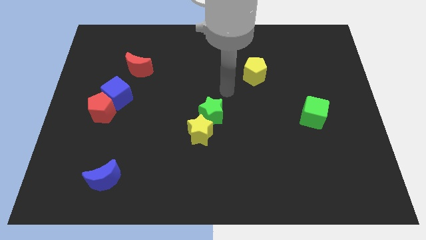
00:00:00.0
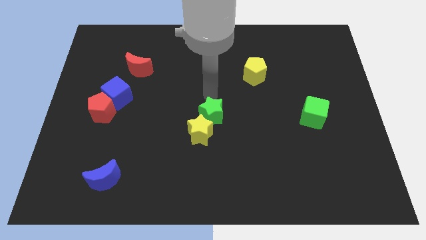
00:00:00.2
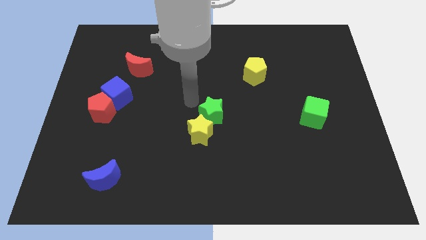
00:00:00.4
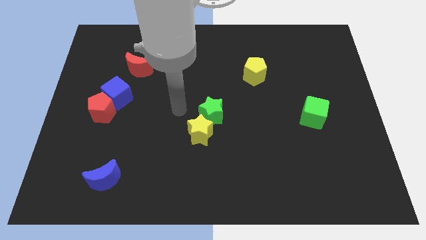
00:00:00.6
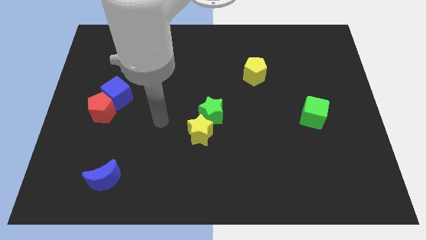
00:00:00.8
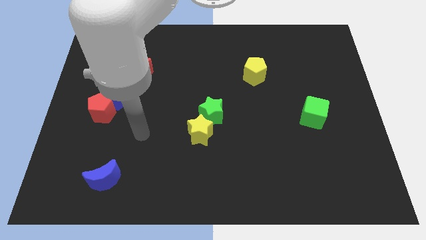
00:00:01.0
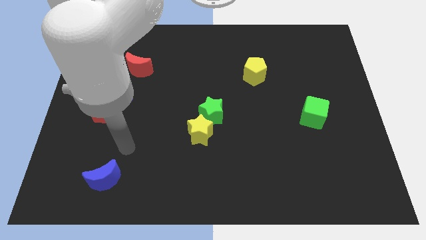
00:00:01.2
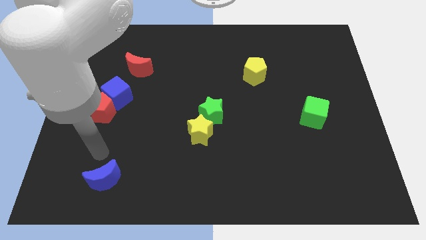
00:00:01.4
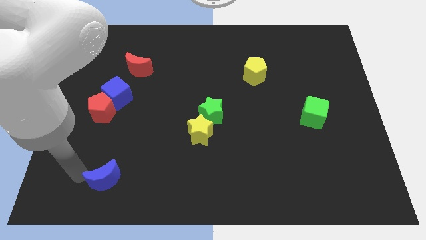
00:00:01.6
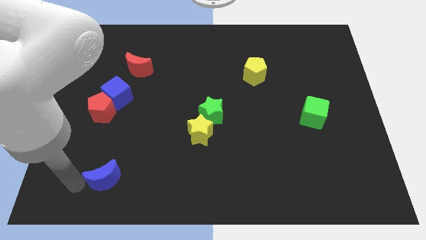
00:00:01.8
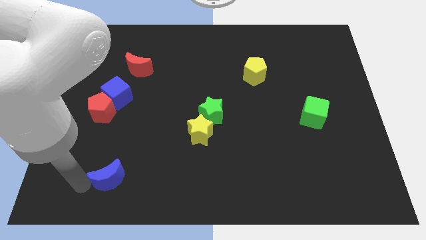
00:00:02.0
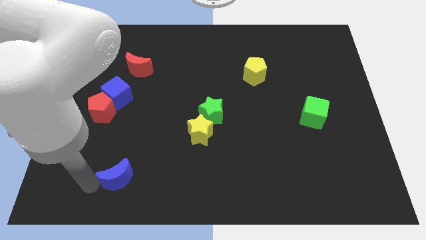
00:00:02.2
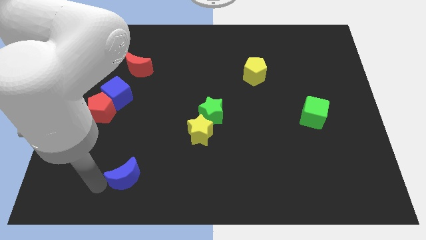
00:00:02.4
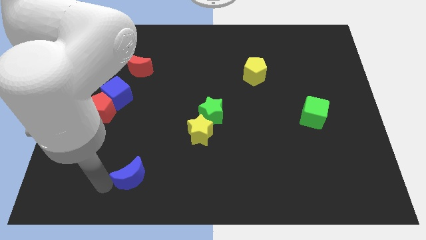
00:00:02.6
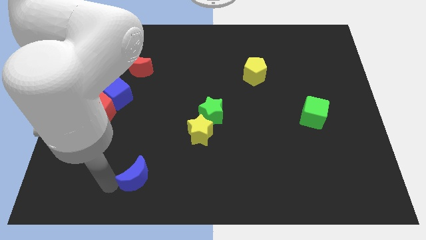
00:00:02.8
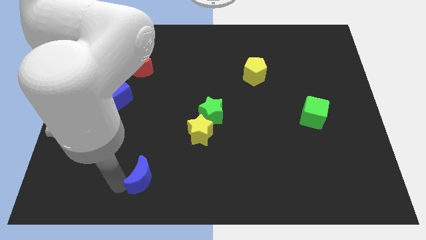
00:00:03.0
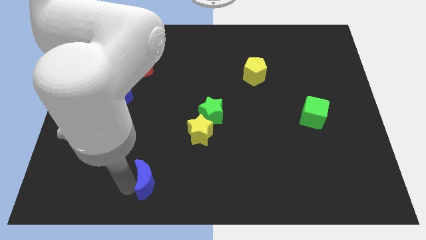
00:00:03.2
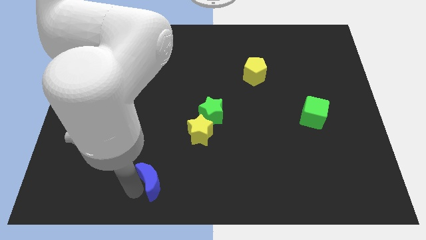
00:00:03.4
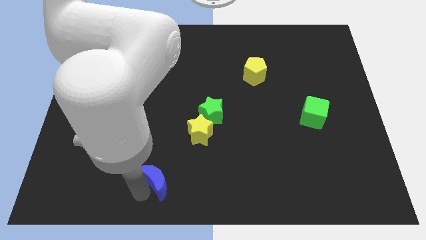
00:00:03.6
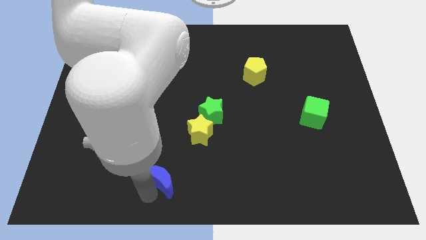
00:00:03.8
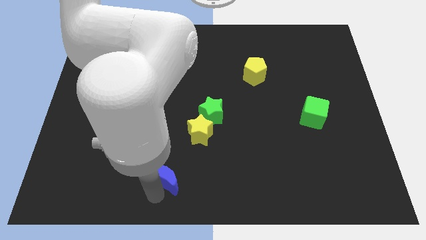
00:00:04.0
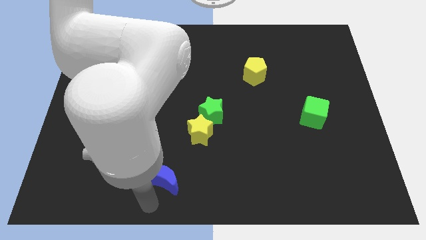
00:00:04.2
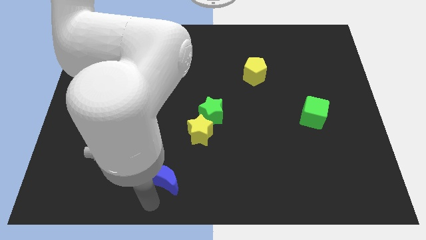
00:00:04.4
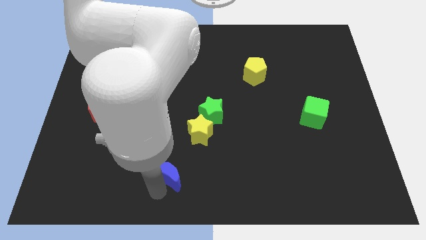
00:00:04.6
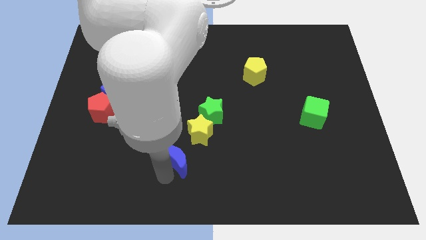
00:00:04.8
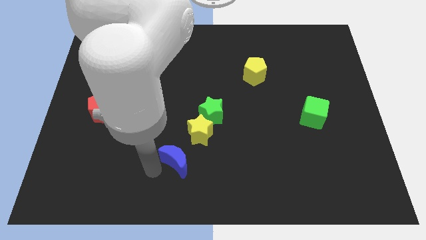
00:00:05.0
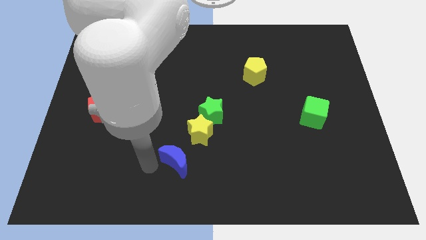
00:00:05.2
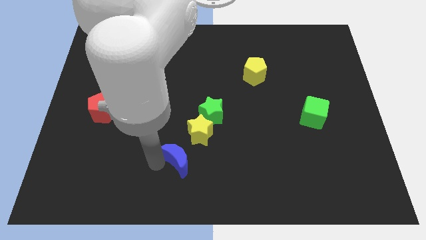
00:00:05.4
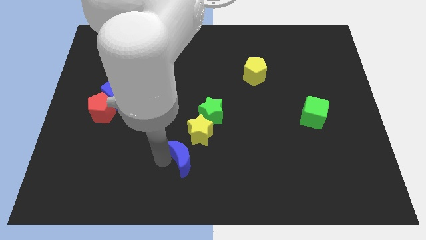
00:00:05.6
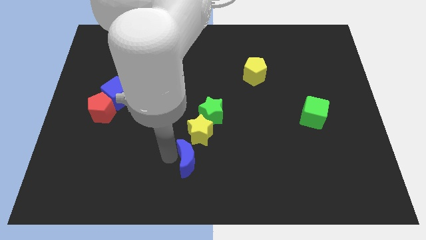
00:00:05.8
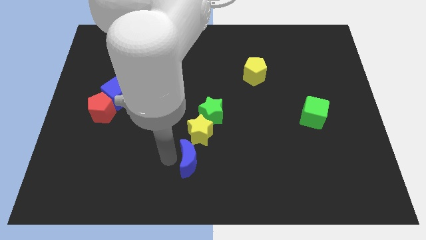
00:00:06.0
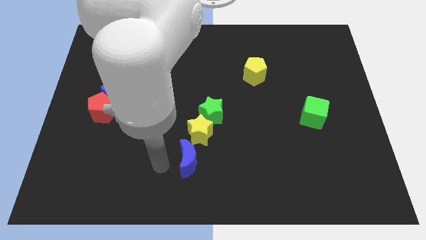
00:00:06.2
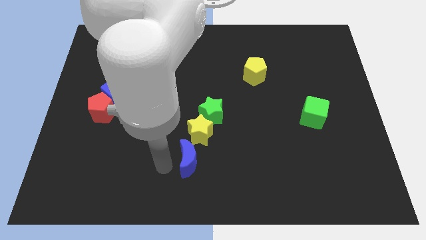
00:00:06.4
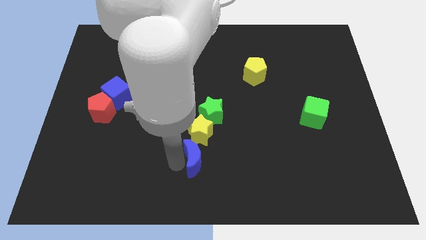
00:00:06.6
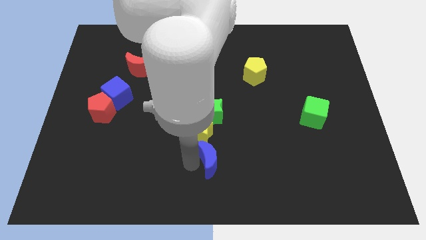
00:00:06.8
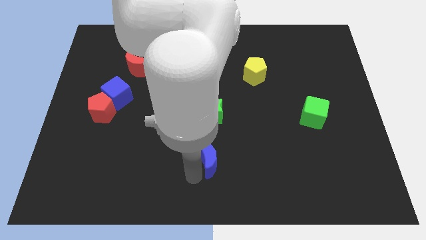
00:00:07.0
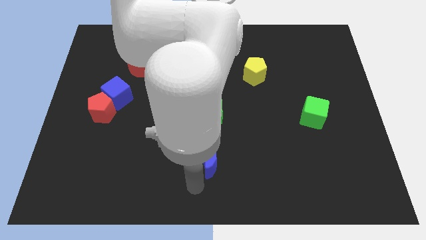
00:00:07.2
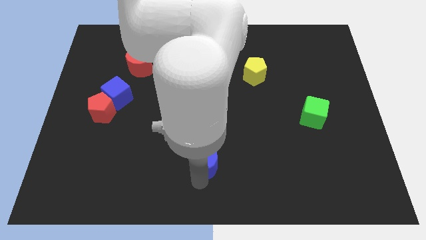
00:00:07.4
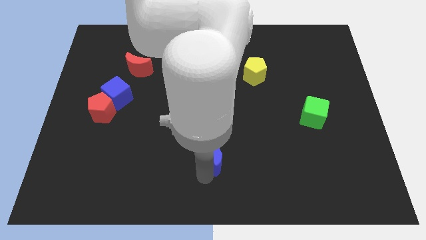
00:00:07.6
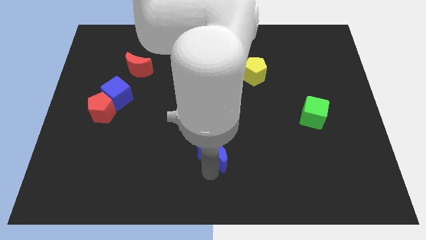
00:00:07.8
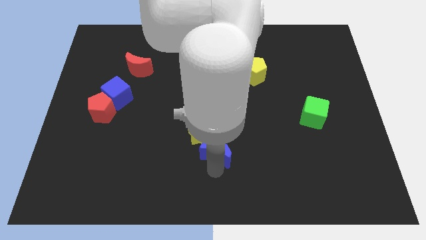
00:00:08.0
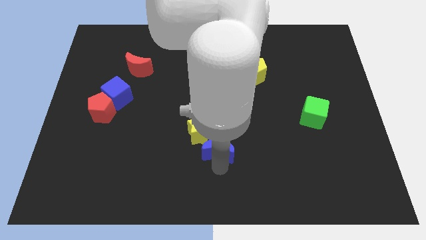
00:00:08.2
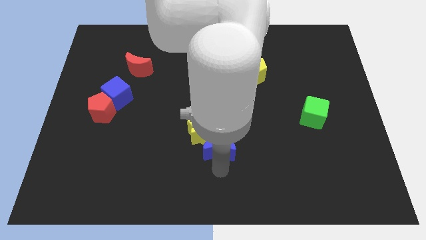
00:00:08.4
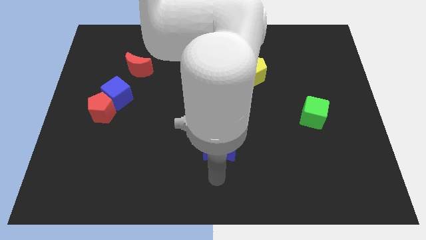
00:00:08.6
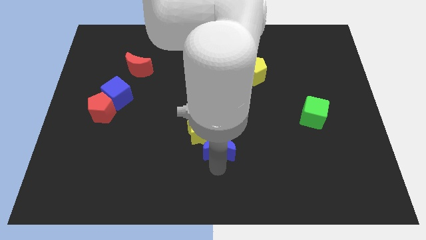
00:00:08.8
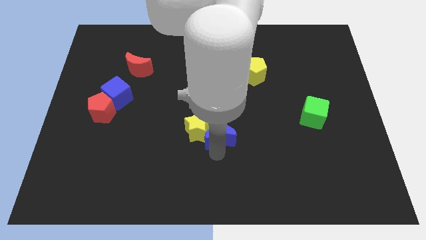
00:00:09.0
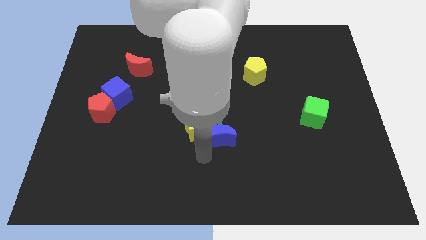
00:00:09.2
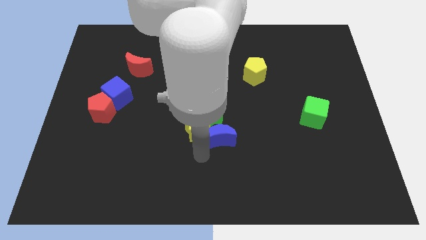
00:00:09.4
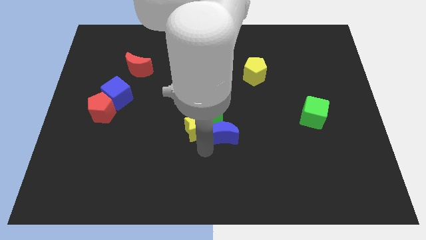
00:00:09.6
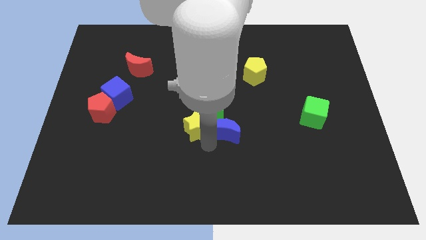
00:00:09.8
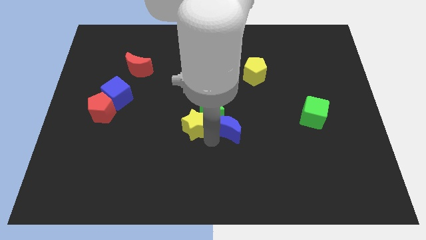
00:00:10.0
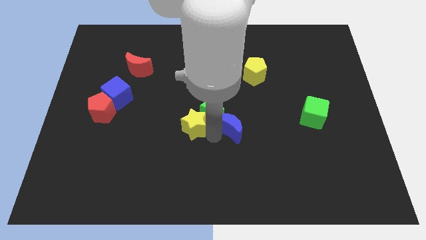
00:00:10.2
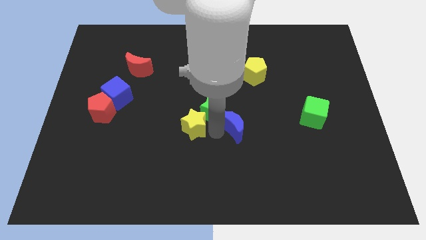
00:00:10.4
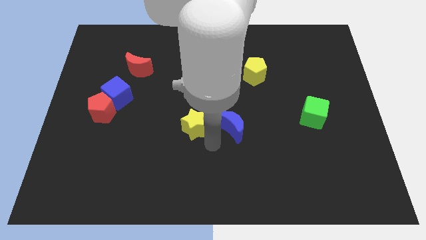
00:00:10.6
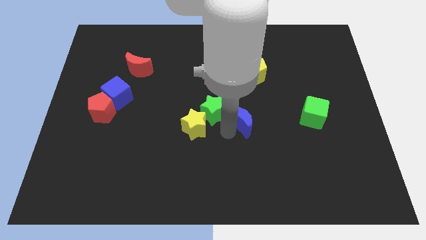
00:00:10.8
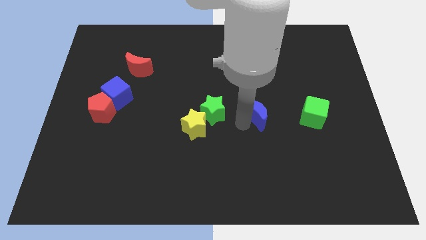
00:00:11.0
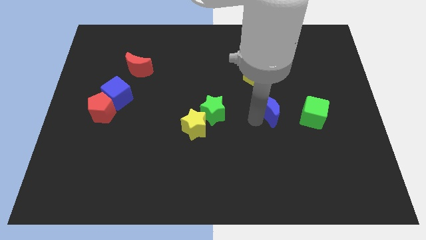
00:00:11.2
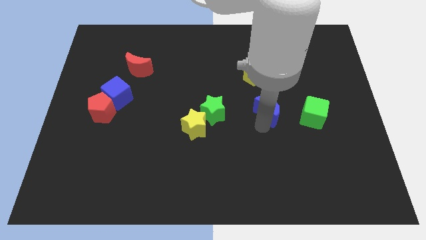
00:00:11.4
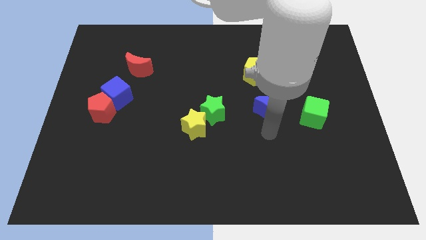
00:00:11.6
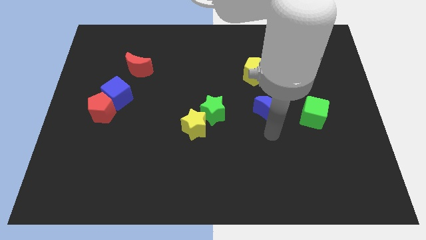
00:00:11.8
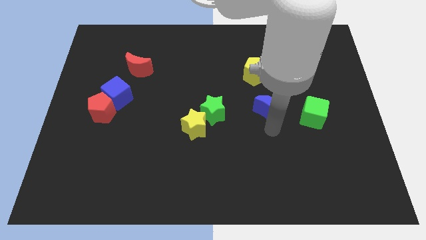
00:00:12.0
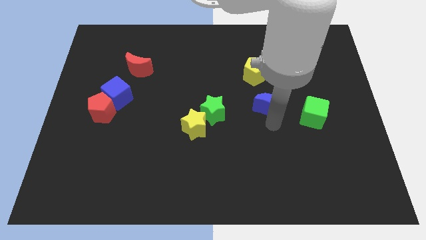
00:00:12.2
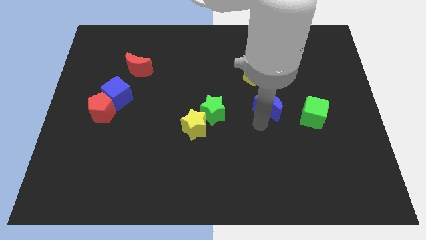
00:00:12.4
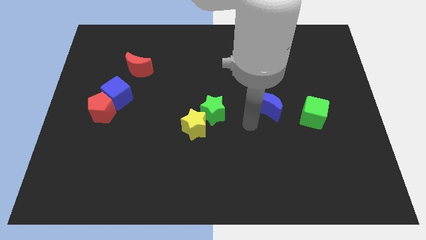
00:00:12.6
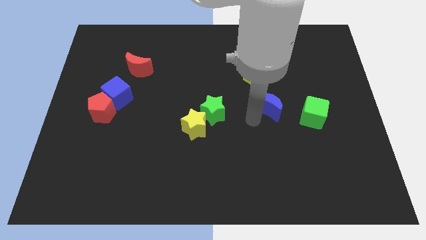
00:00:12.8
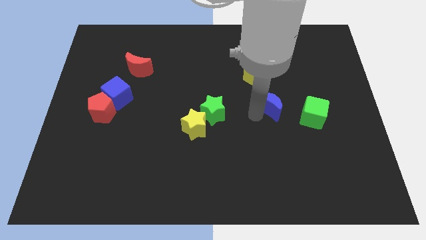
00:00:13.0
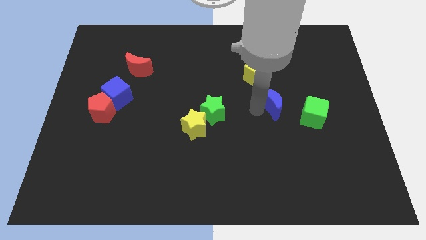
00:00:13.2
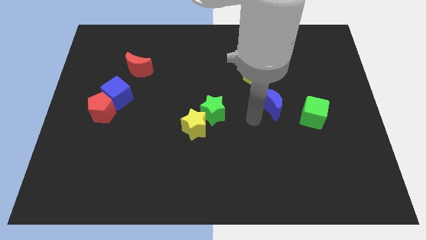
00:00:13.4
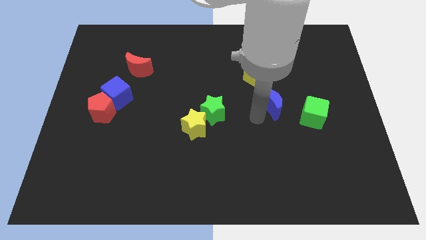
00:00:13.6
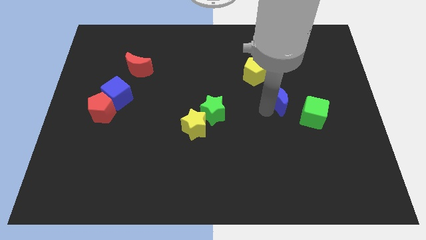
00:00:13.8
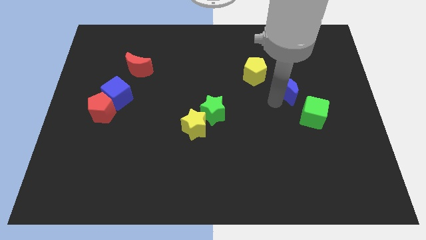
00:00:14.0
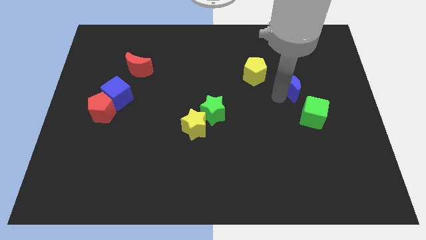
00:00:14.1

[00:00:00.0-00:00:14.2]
move the blue moon to the top of the green cube
